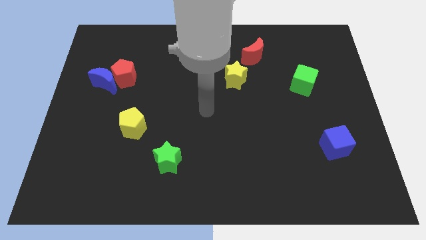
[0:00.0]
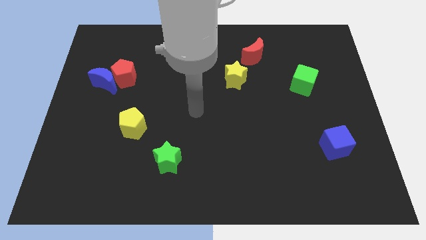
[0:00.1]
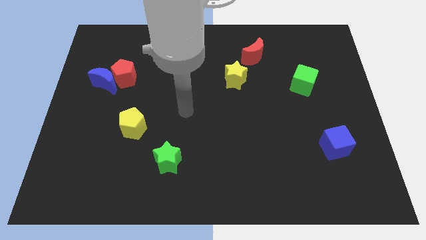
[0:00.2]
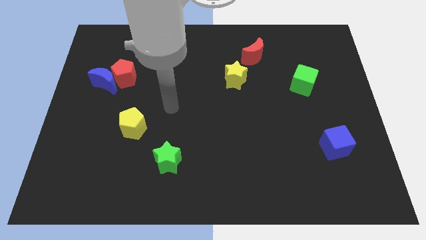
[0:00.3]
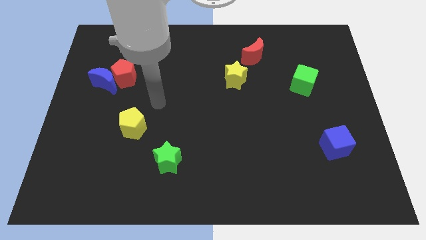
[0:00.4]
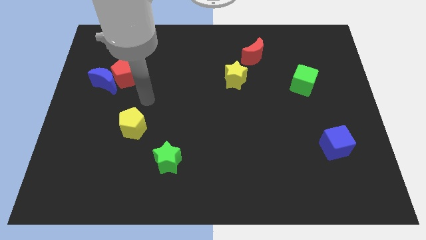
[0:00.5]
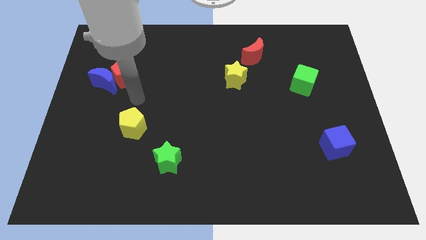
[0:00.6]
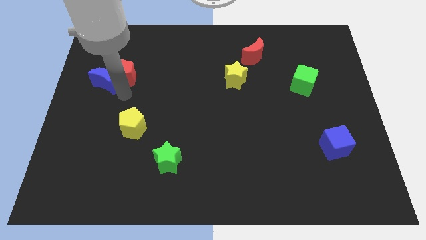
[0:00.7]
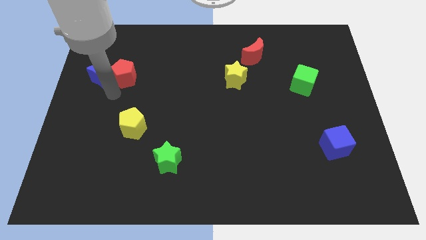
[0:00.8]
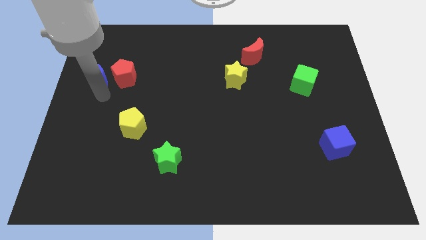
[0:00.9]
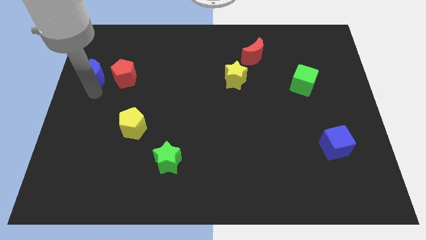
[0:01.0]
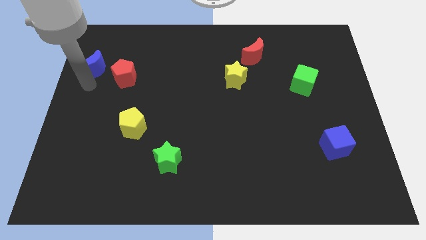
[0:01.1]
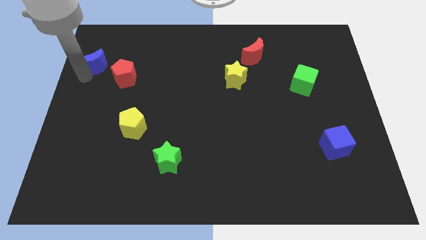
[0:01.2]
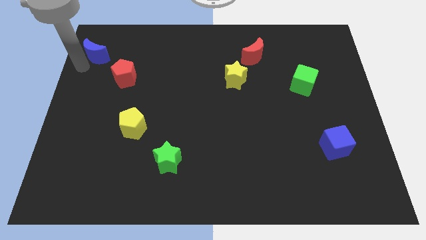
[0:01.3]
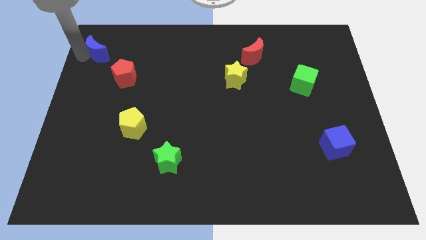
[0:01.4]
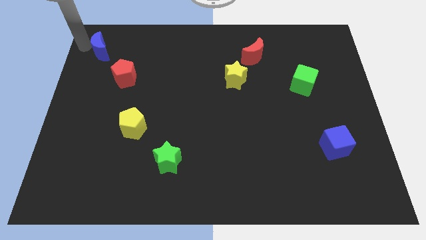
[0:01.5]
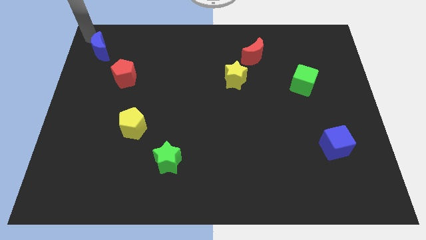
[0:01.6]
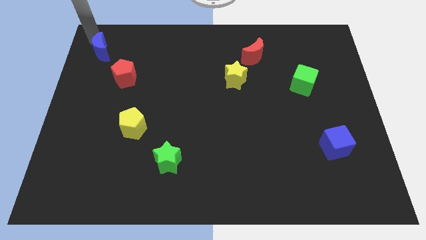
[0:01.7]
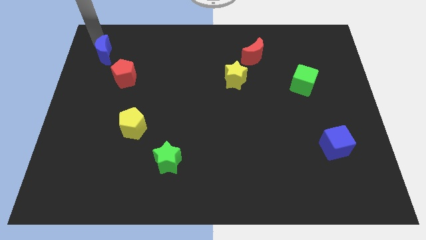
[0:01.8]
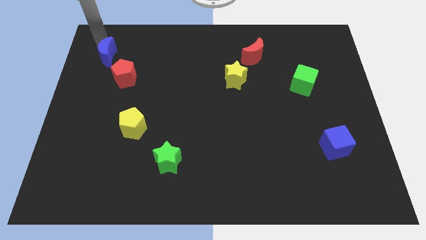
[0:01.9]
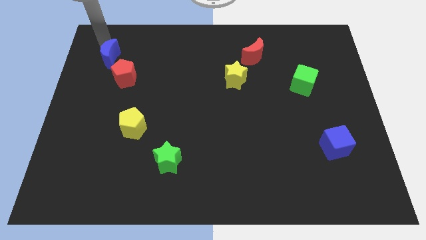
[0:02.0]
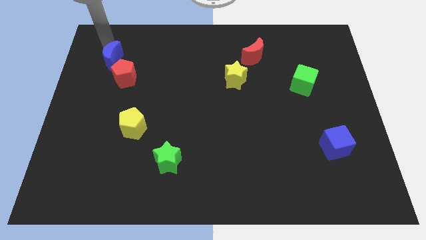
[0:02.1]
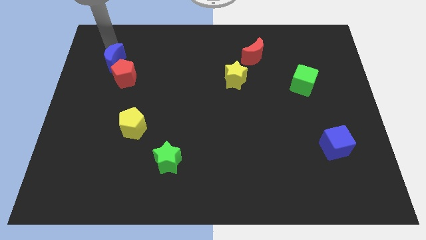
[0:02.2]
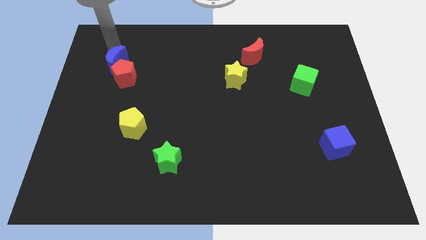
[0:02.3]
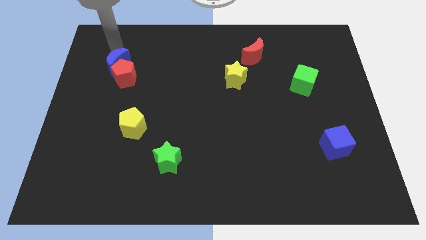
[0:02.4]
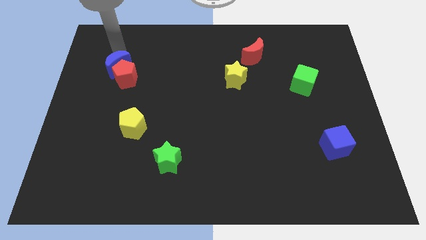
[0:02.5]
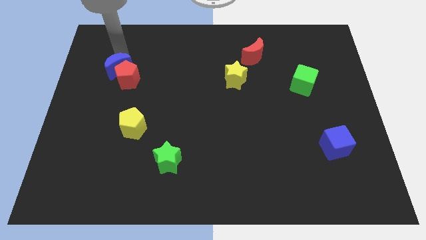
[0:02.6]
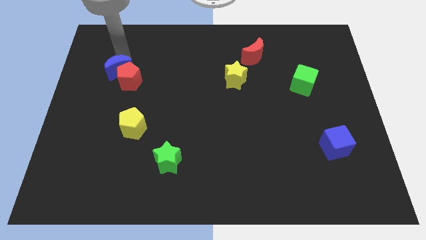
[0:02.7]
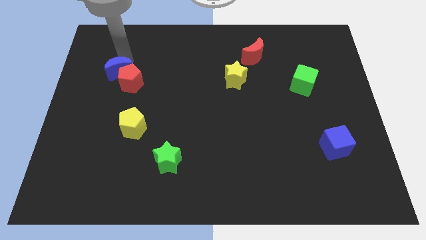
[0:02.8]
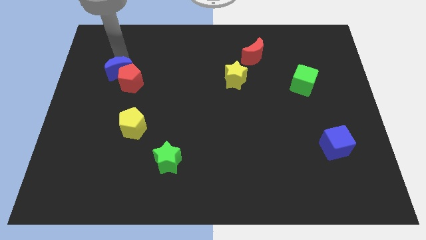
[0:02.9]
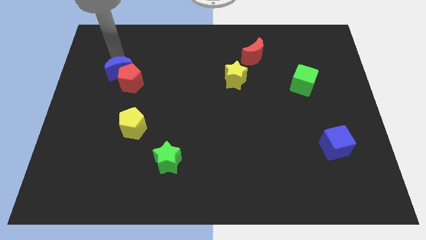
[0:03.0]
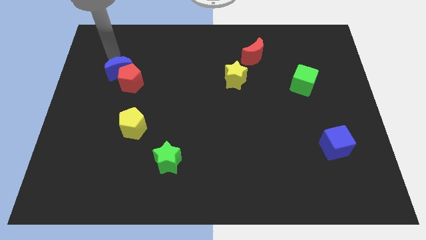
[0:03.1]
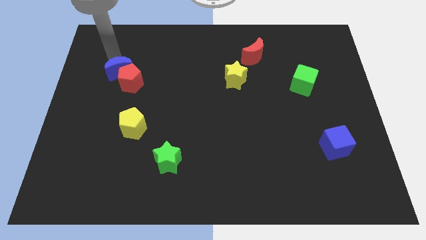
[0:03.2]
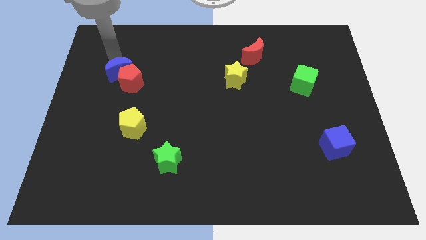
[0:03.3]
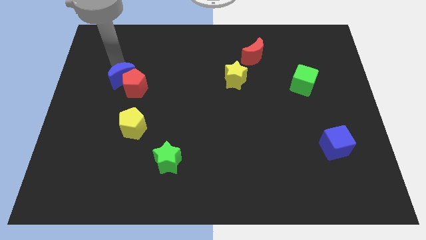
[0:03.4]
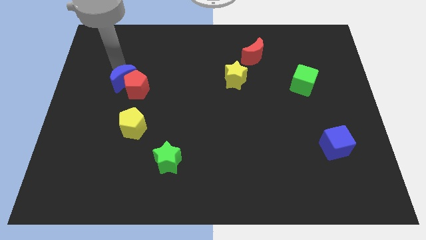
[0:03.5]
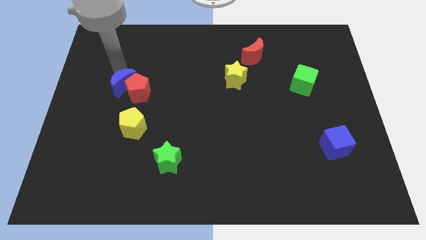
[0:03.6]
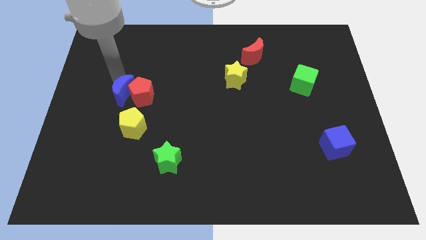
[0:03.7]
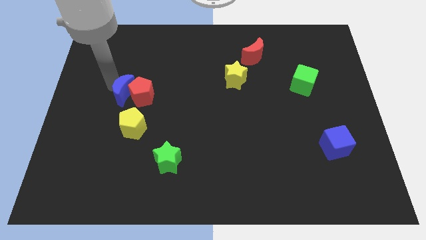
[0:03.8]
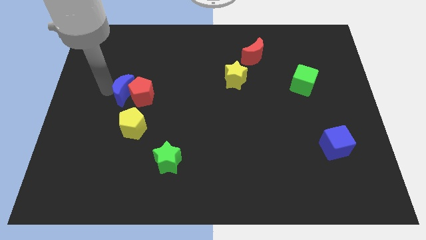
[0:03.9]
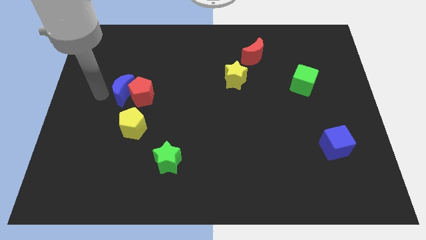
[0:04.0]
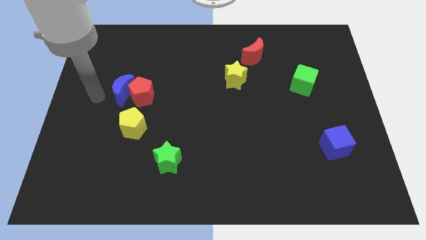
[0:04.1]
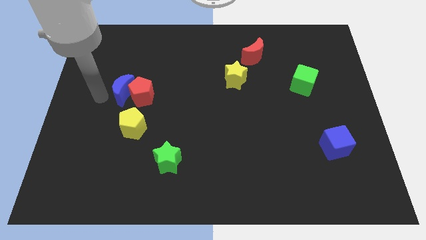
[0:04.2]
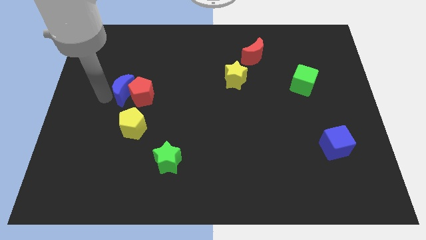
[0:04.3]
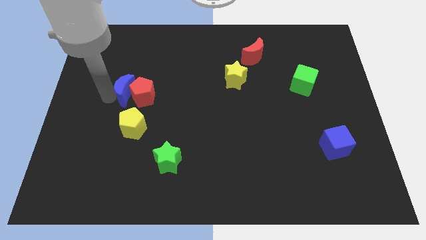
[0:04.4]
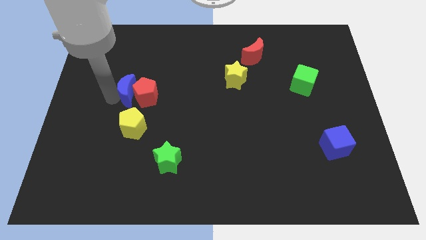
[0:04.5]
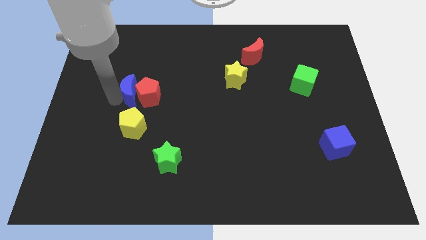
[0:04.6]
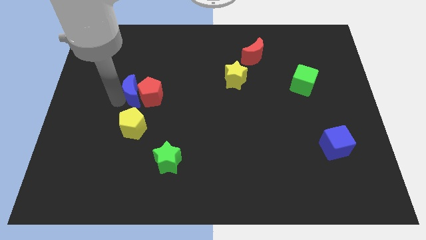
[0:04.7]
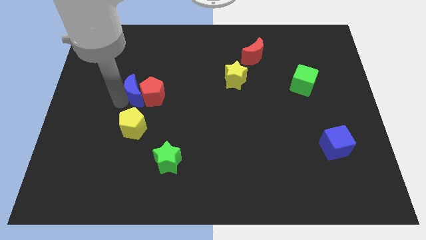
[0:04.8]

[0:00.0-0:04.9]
move the blue moon to the right somewhat

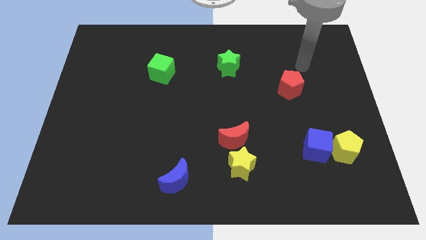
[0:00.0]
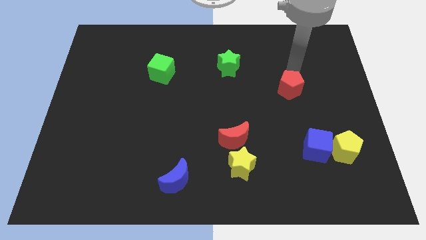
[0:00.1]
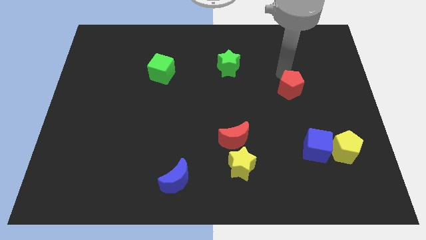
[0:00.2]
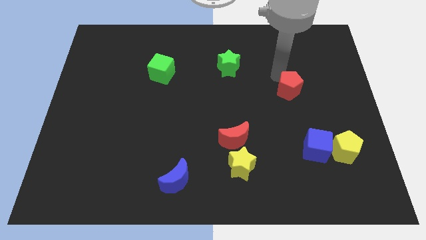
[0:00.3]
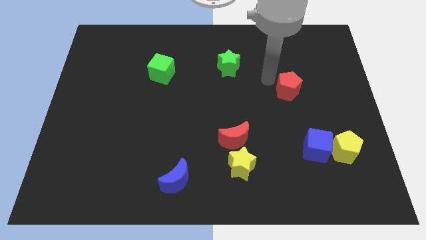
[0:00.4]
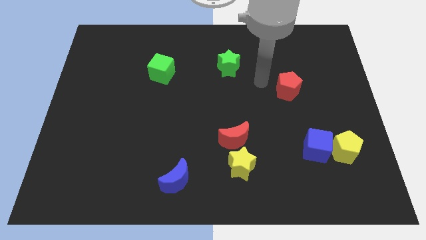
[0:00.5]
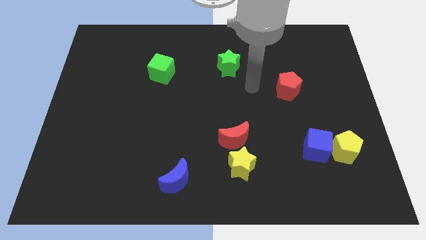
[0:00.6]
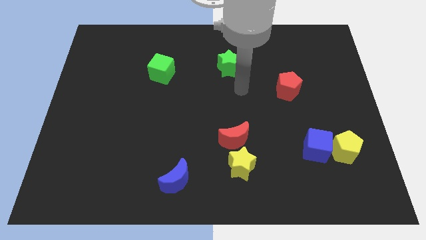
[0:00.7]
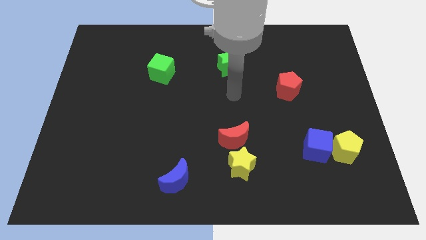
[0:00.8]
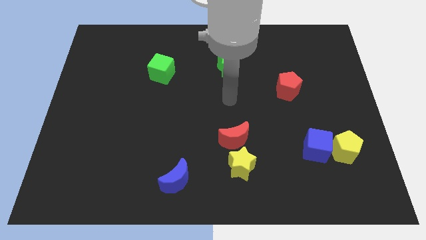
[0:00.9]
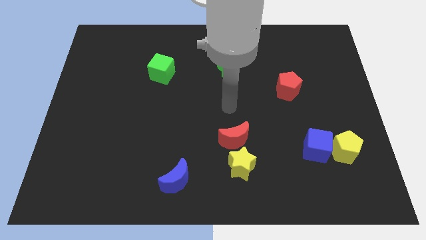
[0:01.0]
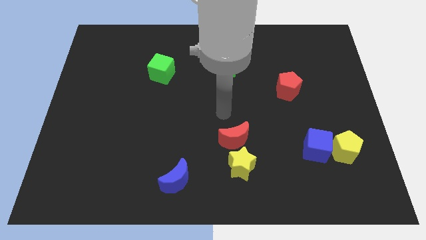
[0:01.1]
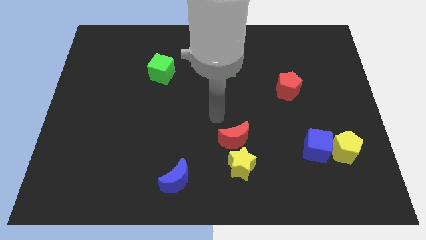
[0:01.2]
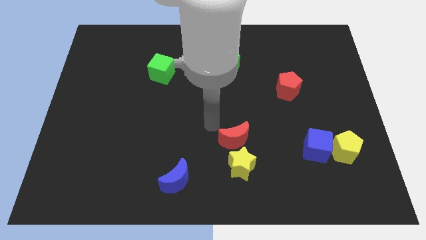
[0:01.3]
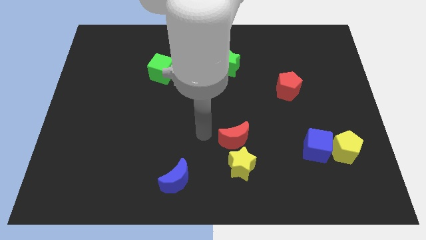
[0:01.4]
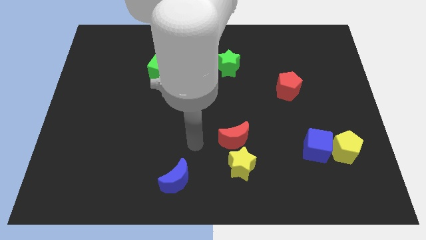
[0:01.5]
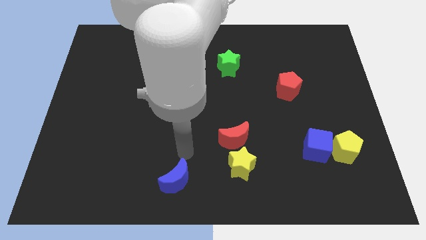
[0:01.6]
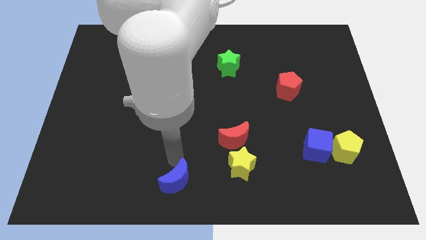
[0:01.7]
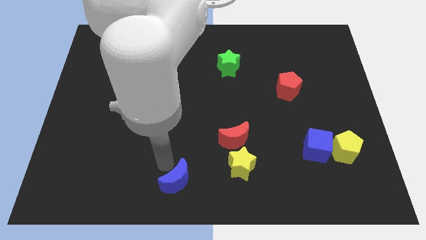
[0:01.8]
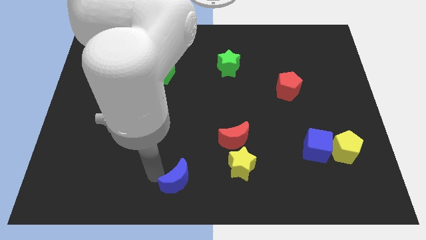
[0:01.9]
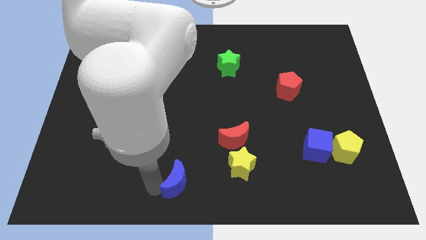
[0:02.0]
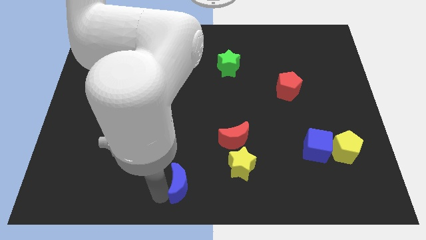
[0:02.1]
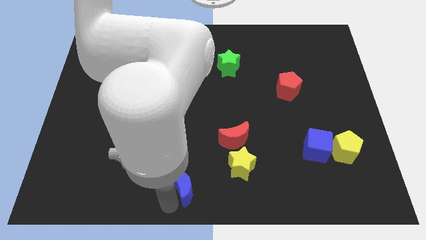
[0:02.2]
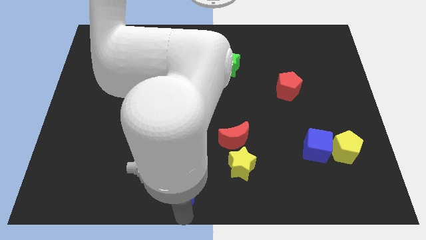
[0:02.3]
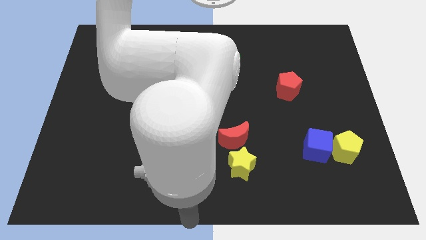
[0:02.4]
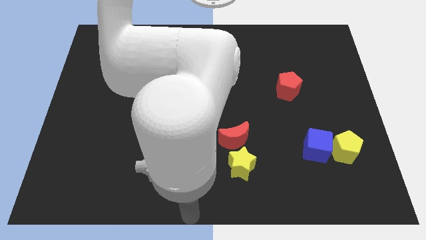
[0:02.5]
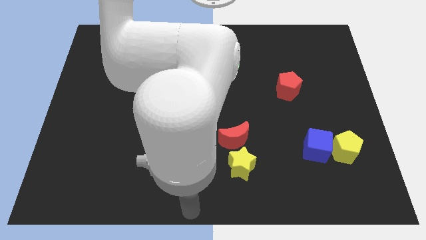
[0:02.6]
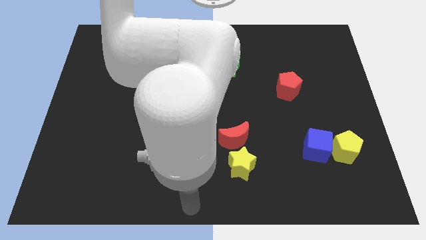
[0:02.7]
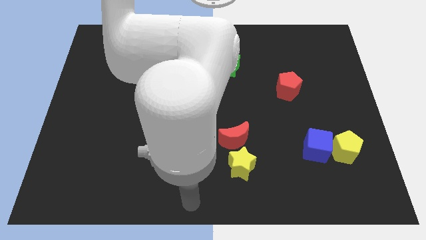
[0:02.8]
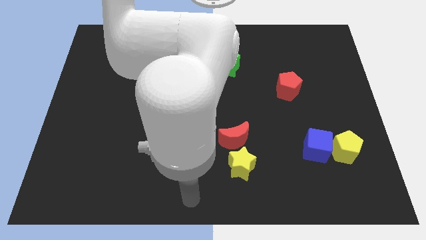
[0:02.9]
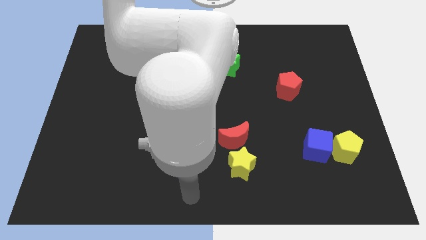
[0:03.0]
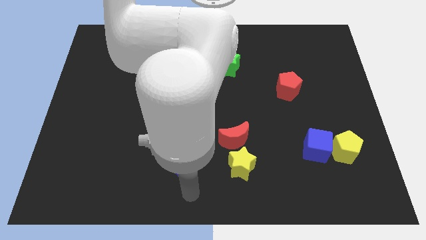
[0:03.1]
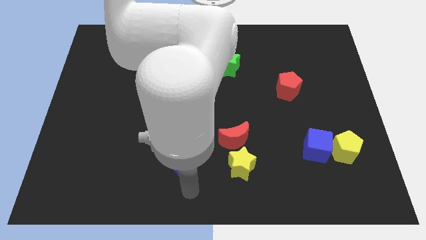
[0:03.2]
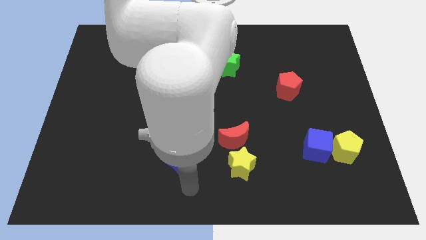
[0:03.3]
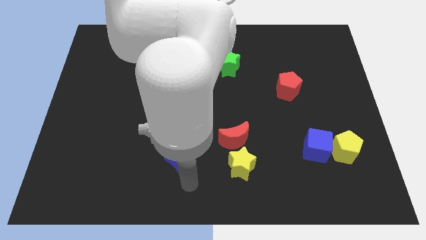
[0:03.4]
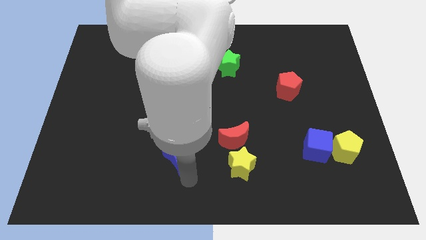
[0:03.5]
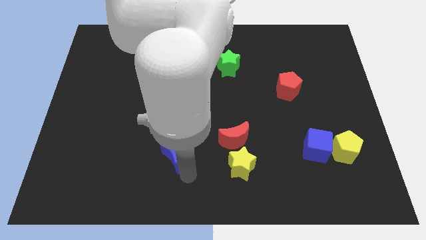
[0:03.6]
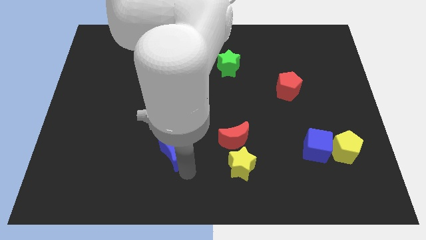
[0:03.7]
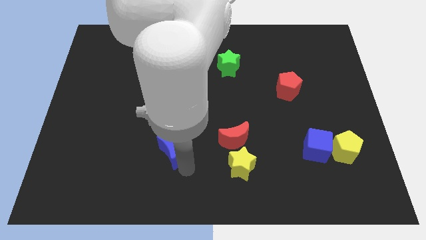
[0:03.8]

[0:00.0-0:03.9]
slightly push the blue moon up
